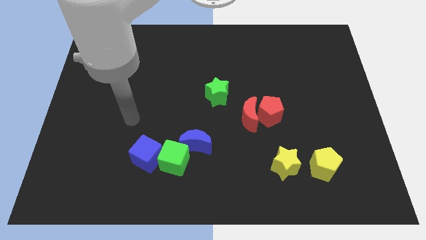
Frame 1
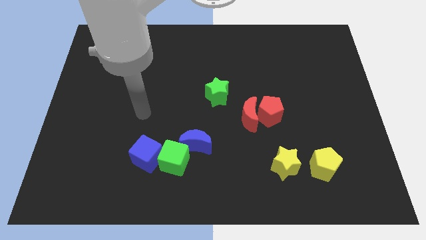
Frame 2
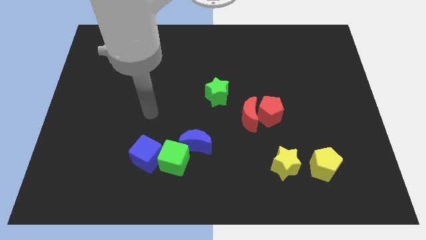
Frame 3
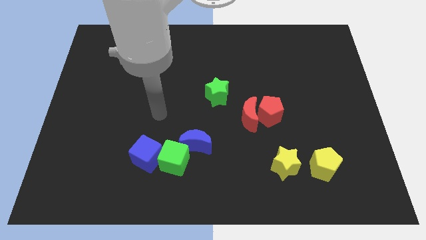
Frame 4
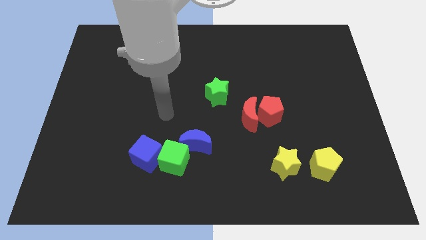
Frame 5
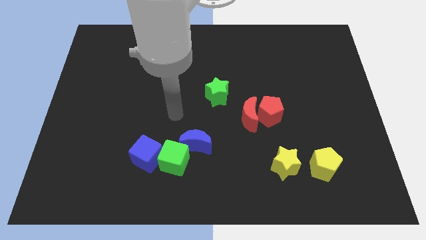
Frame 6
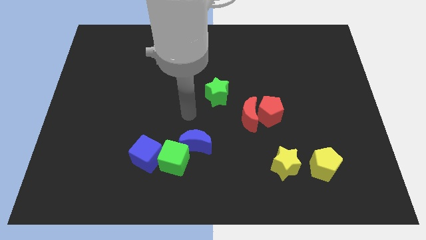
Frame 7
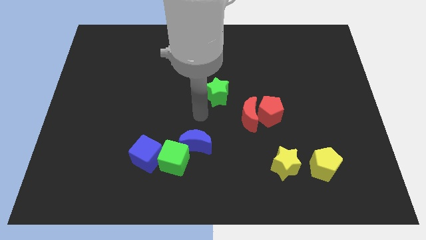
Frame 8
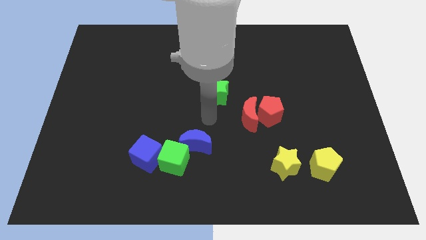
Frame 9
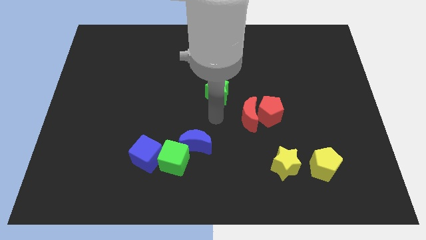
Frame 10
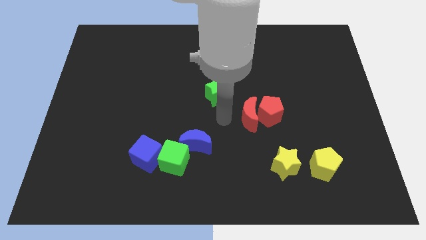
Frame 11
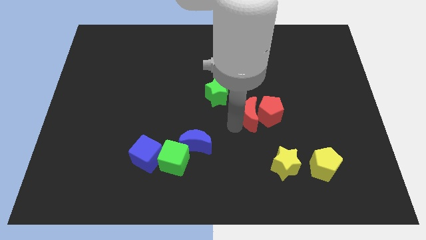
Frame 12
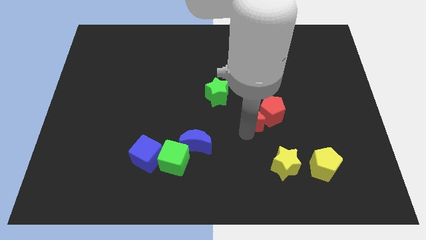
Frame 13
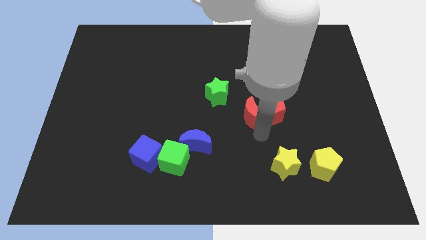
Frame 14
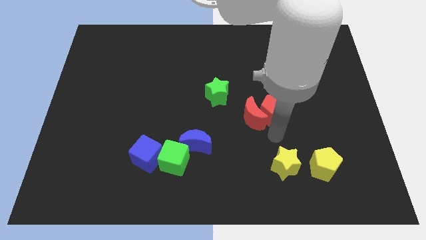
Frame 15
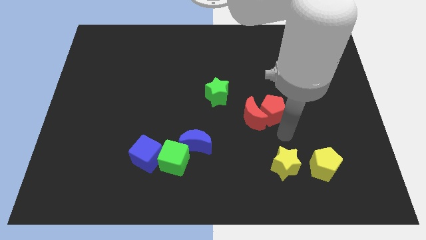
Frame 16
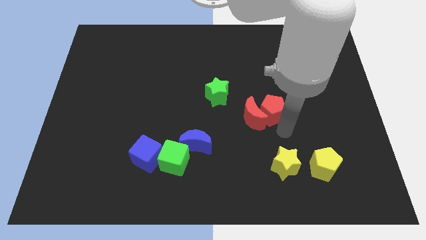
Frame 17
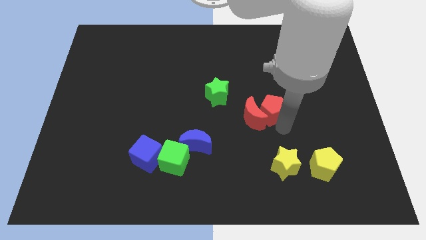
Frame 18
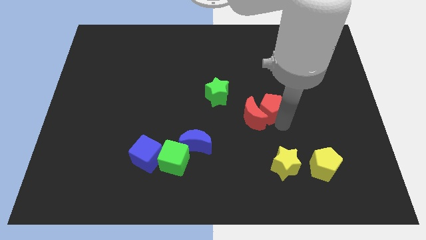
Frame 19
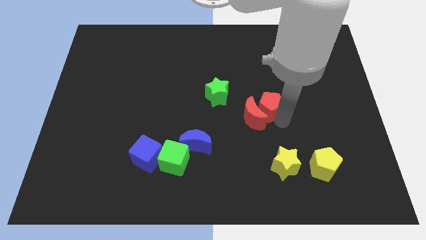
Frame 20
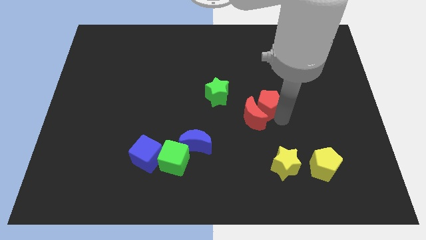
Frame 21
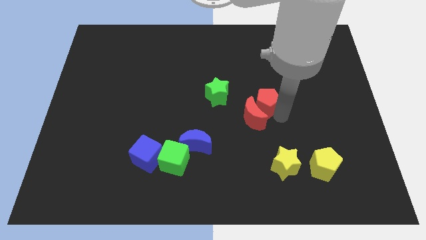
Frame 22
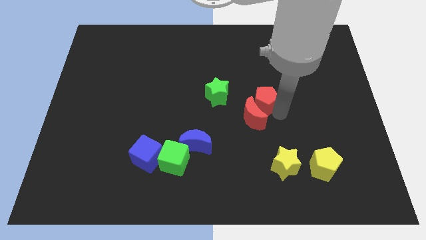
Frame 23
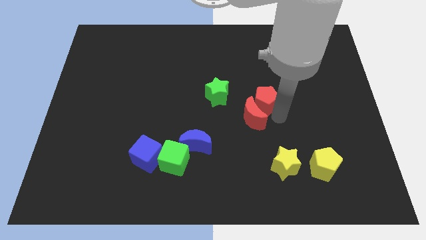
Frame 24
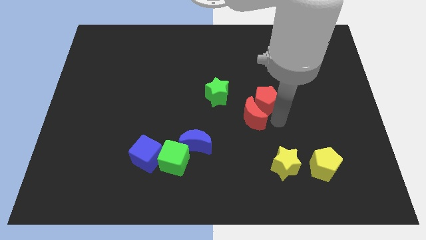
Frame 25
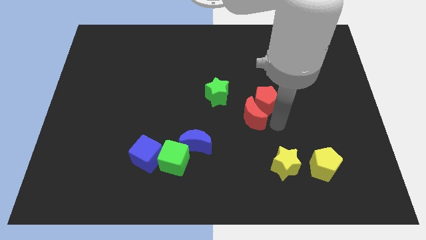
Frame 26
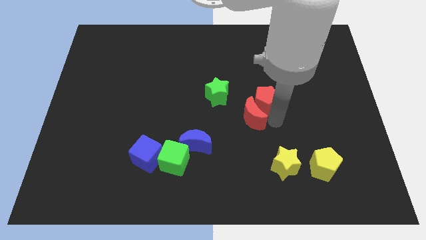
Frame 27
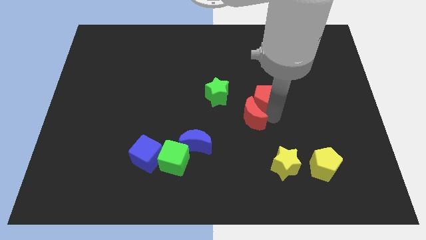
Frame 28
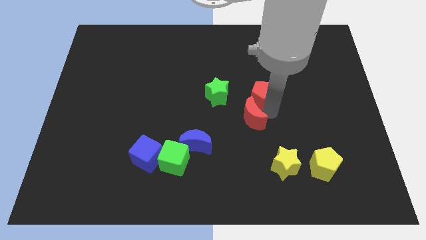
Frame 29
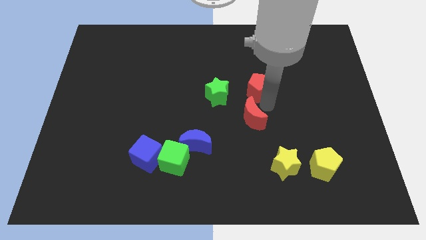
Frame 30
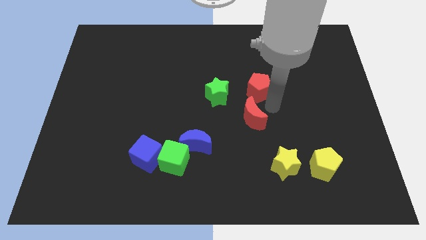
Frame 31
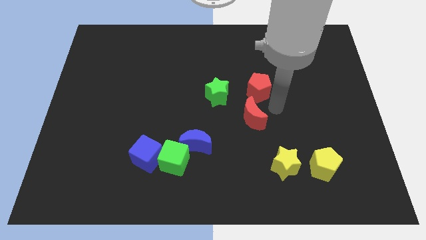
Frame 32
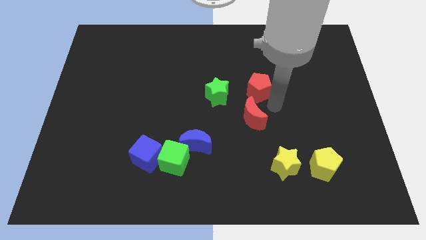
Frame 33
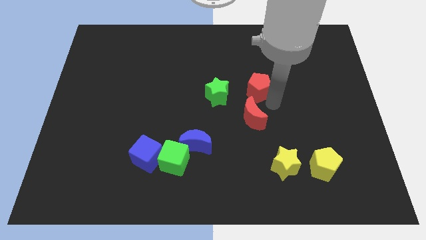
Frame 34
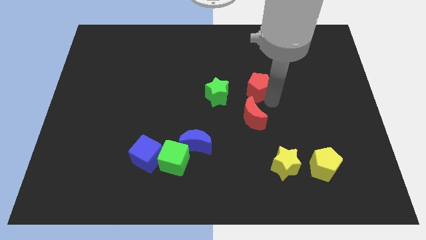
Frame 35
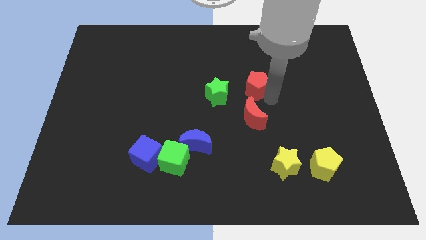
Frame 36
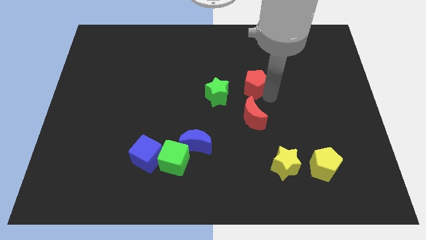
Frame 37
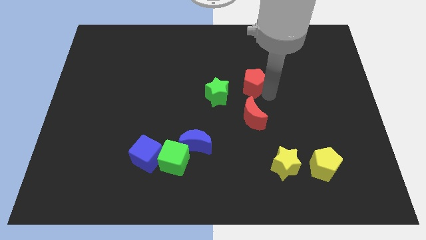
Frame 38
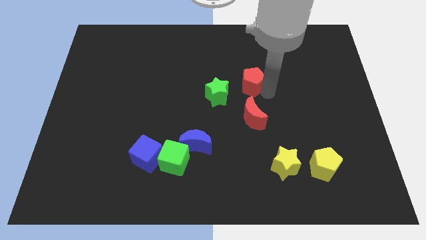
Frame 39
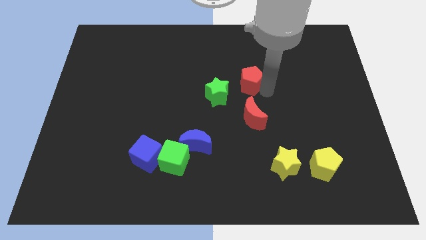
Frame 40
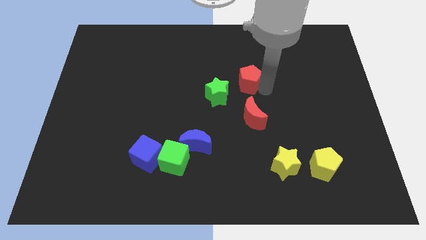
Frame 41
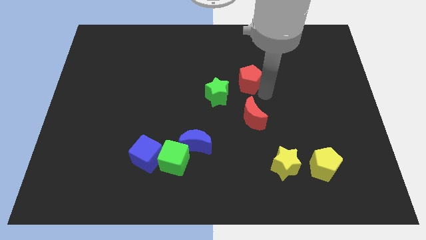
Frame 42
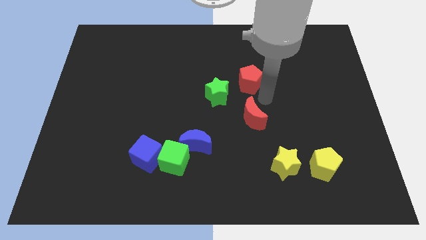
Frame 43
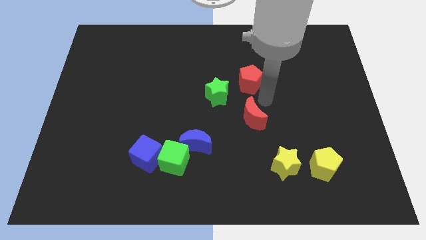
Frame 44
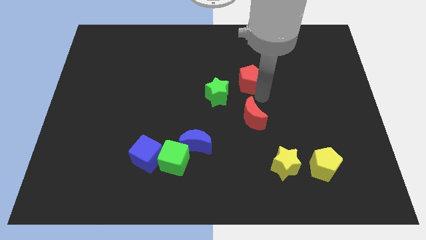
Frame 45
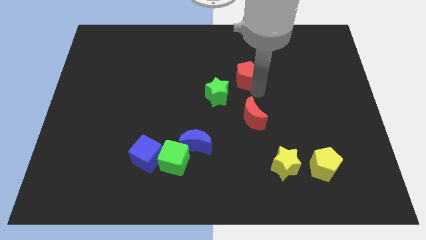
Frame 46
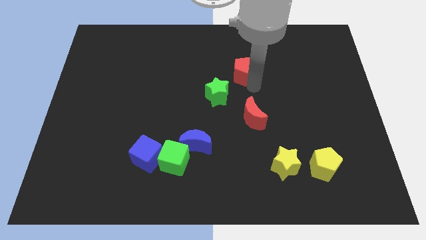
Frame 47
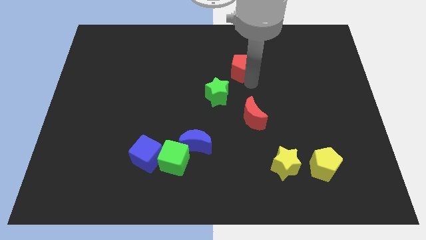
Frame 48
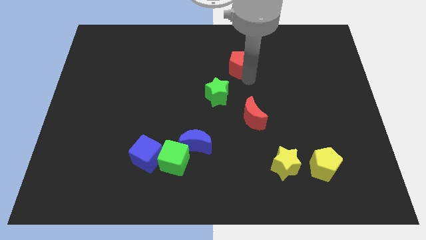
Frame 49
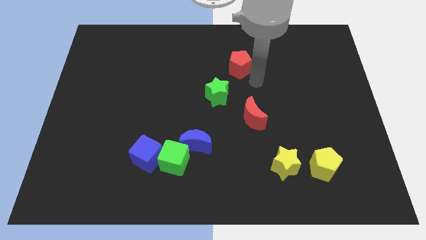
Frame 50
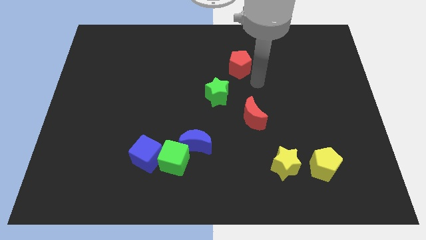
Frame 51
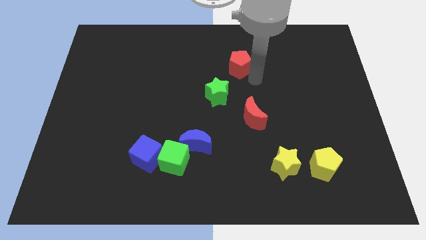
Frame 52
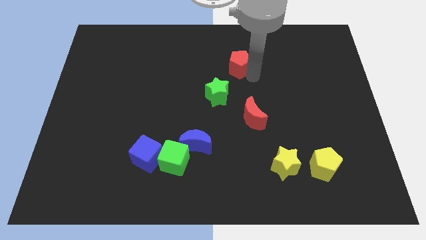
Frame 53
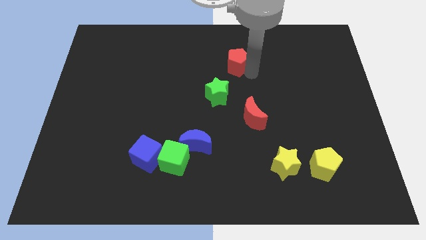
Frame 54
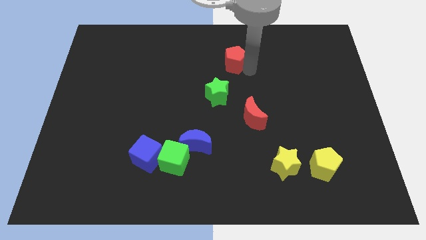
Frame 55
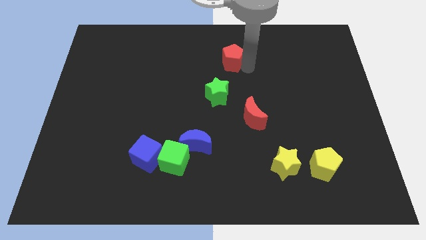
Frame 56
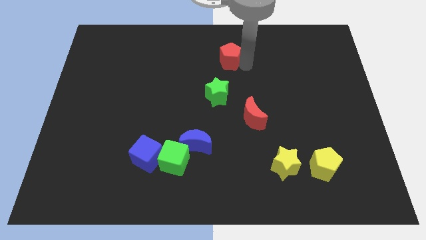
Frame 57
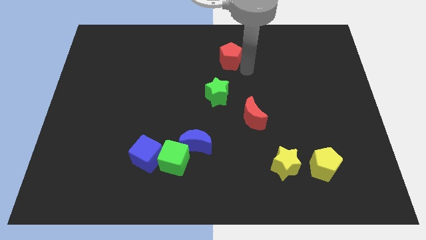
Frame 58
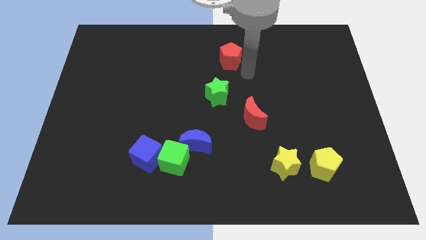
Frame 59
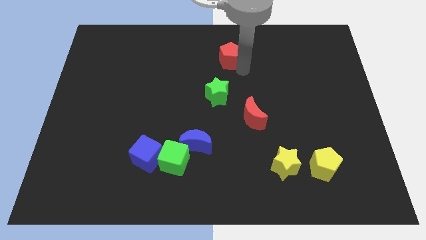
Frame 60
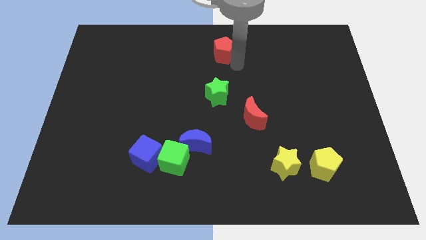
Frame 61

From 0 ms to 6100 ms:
move the red pentagon to the top side
